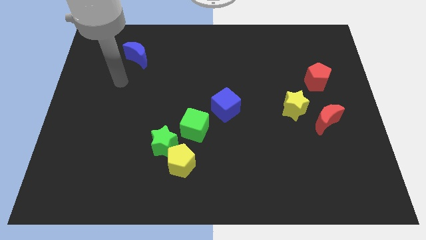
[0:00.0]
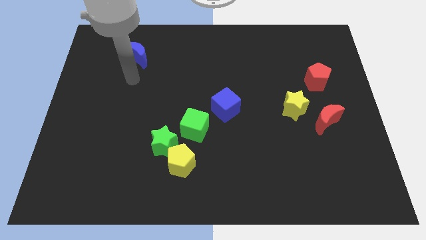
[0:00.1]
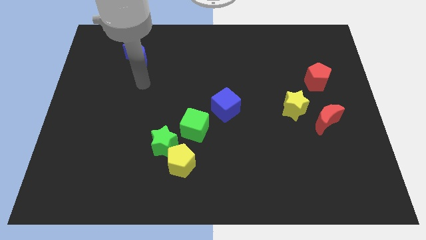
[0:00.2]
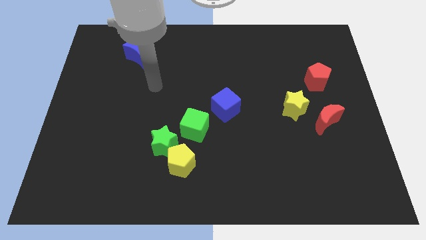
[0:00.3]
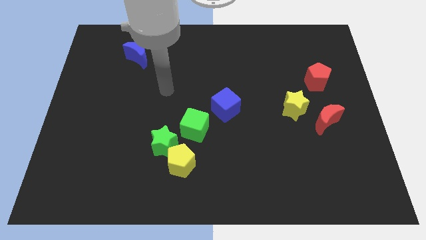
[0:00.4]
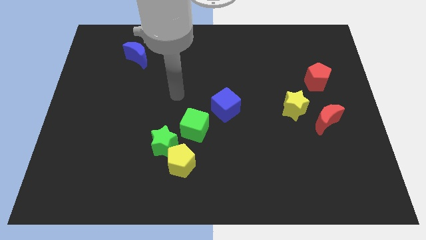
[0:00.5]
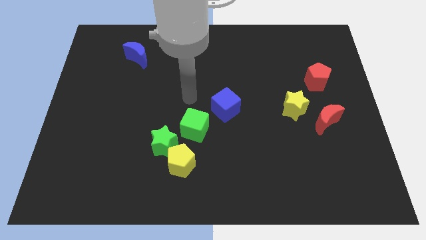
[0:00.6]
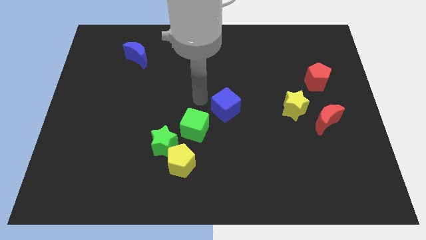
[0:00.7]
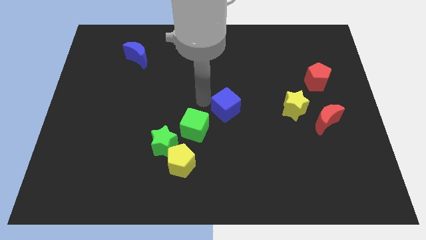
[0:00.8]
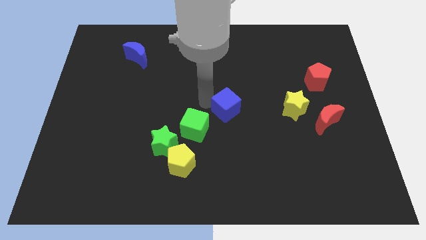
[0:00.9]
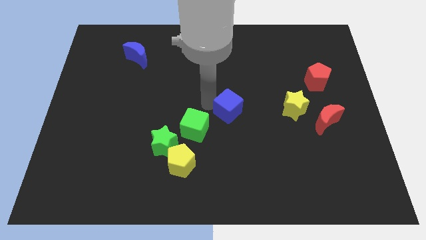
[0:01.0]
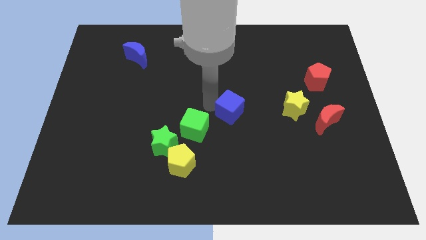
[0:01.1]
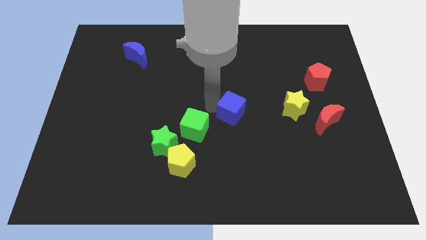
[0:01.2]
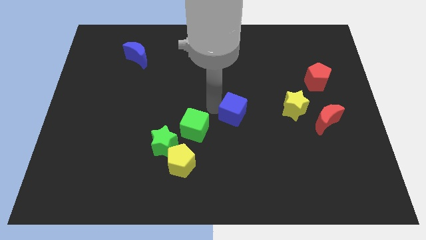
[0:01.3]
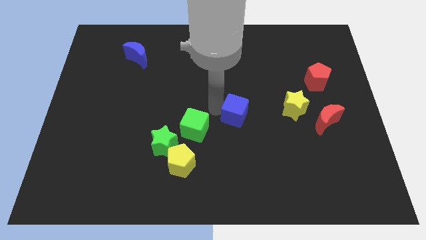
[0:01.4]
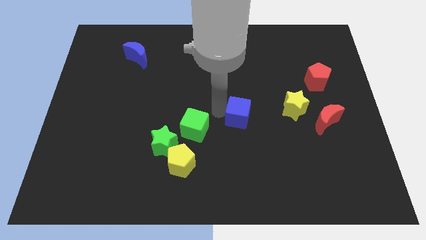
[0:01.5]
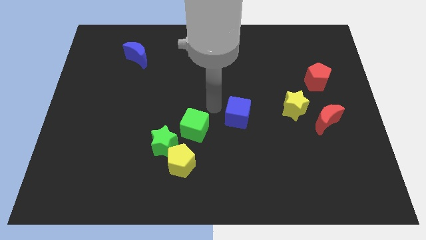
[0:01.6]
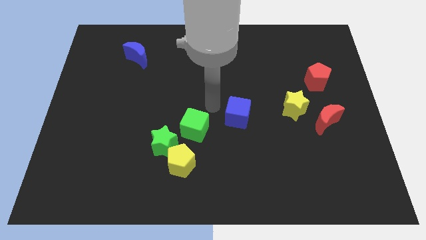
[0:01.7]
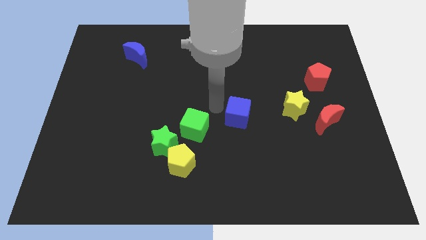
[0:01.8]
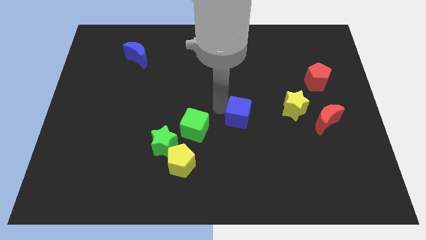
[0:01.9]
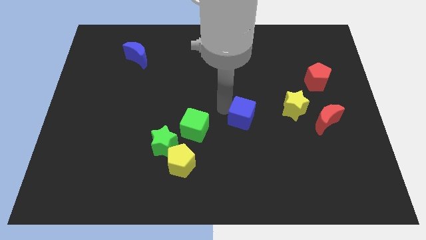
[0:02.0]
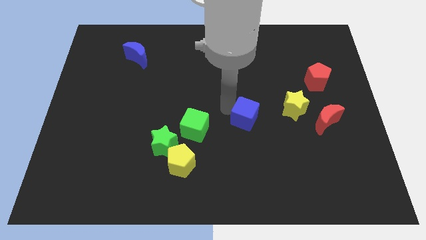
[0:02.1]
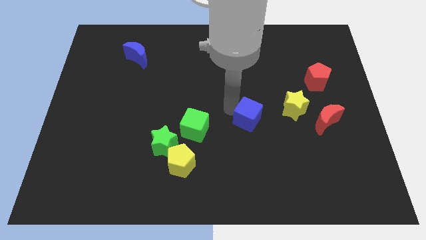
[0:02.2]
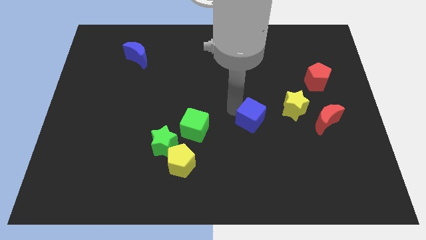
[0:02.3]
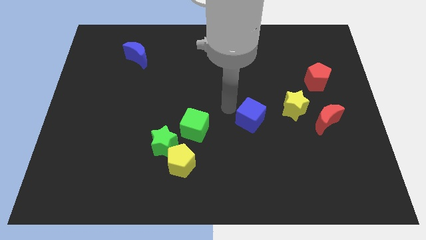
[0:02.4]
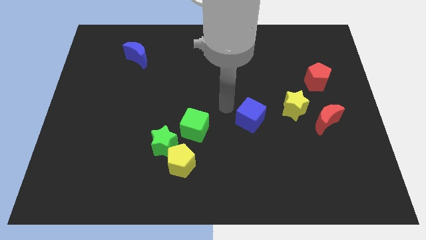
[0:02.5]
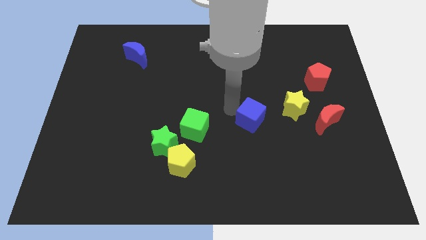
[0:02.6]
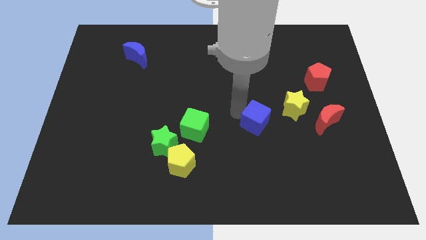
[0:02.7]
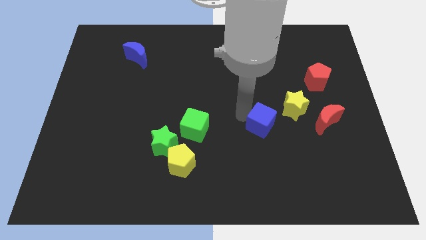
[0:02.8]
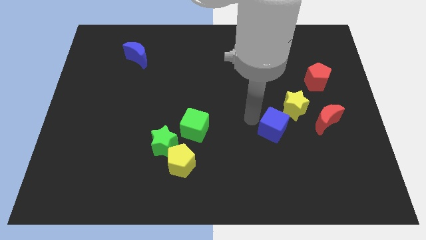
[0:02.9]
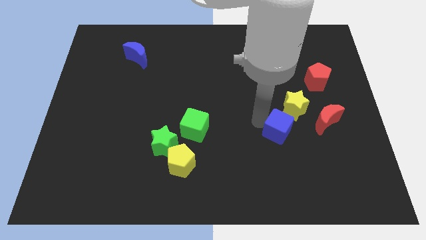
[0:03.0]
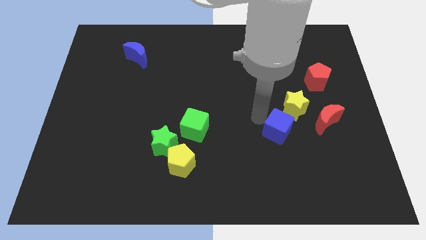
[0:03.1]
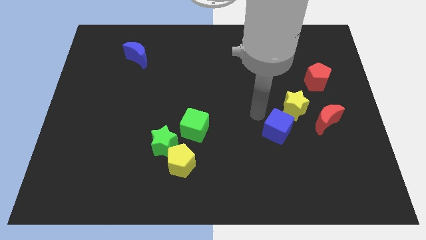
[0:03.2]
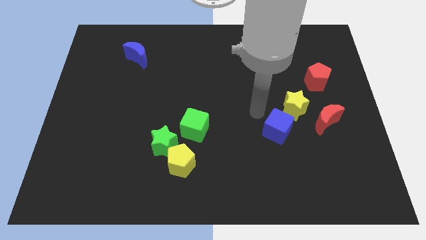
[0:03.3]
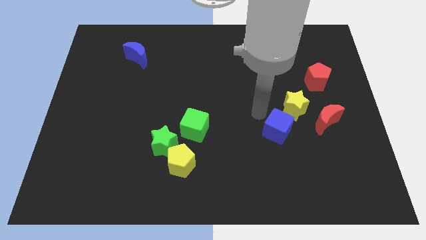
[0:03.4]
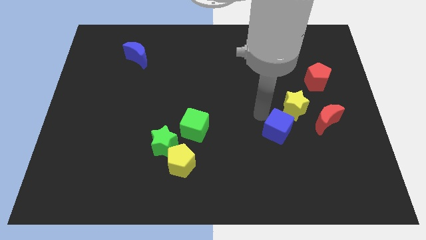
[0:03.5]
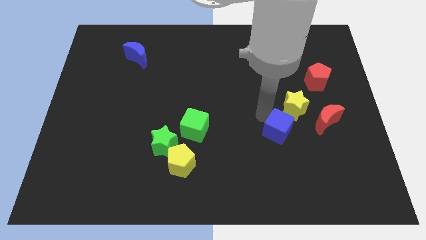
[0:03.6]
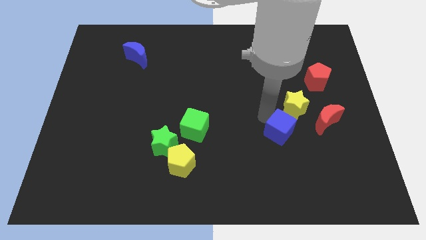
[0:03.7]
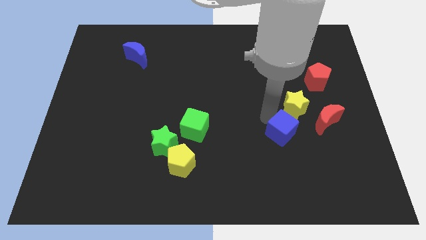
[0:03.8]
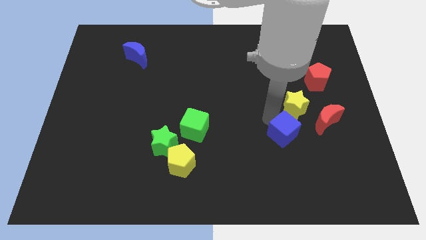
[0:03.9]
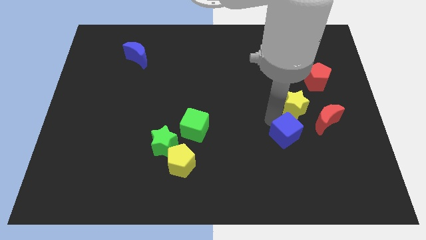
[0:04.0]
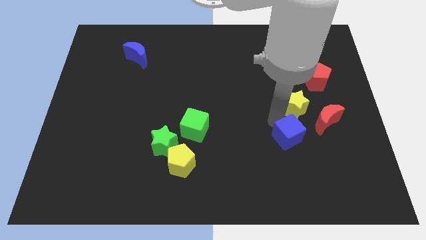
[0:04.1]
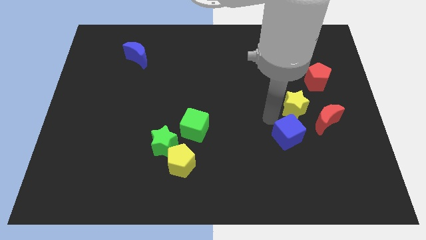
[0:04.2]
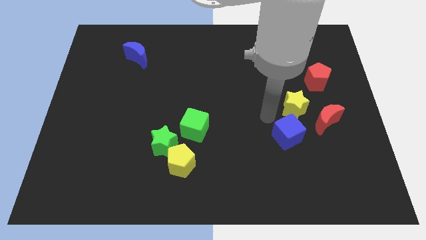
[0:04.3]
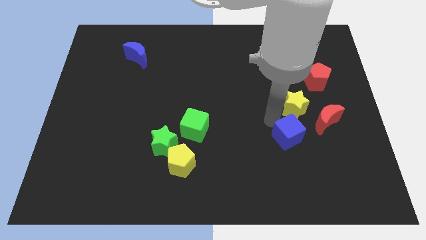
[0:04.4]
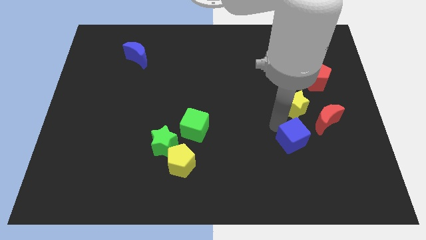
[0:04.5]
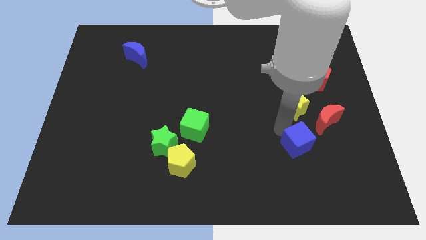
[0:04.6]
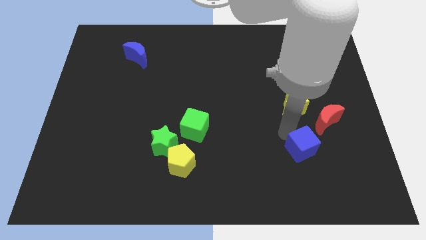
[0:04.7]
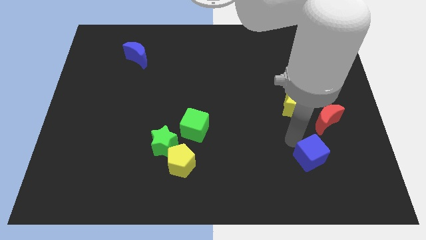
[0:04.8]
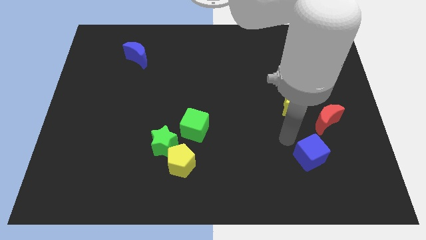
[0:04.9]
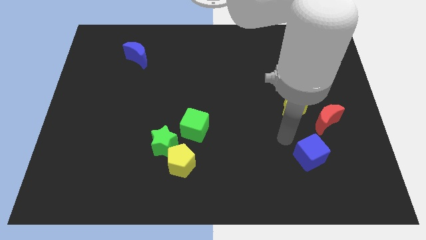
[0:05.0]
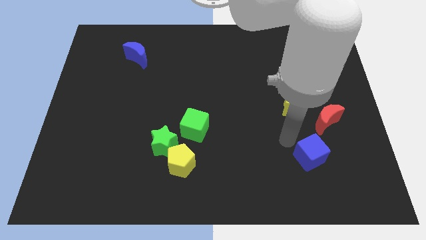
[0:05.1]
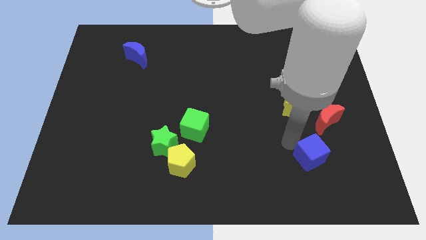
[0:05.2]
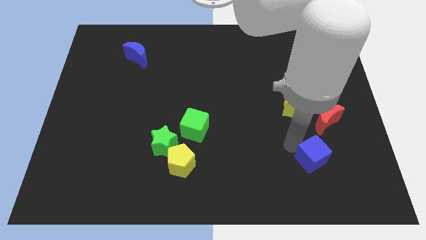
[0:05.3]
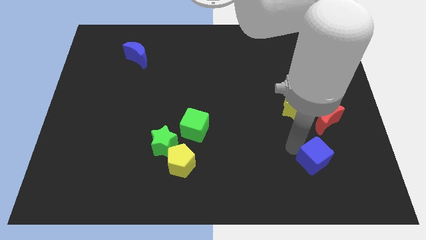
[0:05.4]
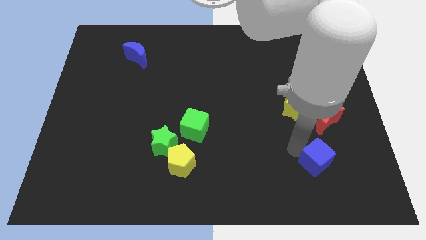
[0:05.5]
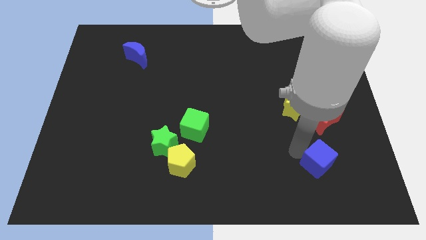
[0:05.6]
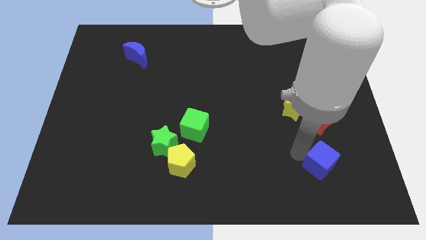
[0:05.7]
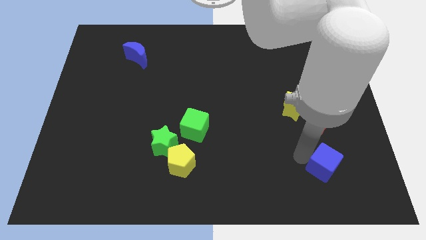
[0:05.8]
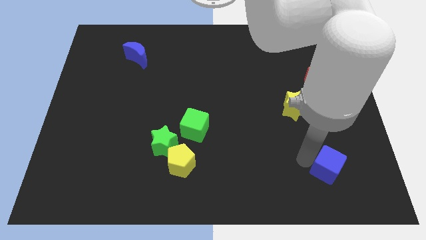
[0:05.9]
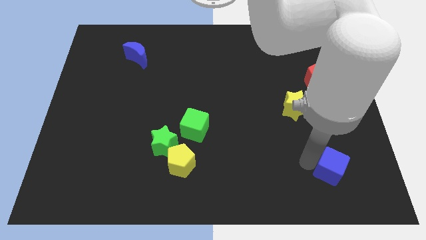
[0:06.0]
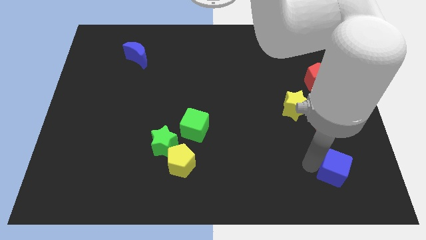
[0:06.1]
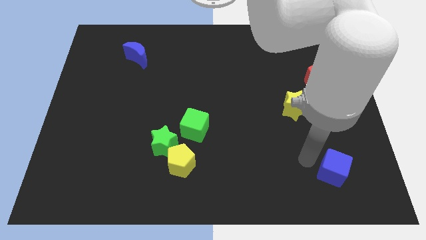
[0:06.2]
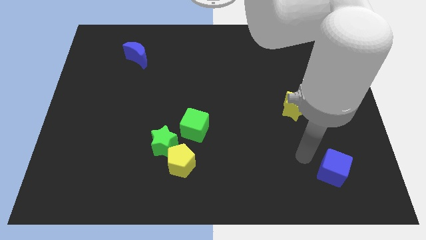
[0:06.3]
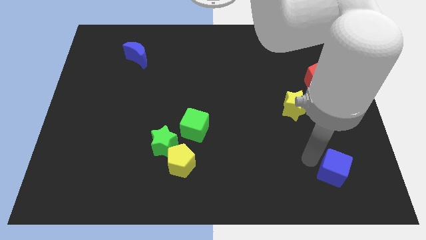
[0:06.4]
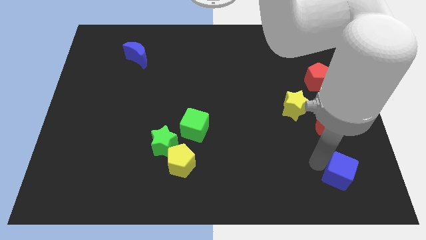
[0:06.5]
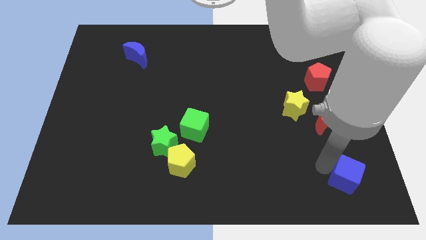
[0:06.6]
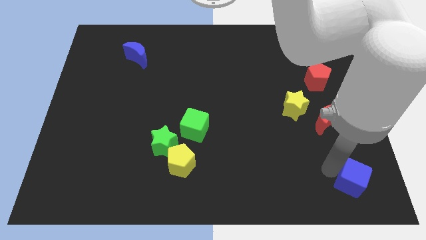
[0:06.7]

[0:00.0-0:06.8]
move the blue cube to the bottom right

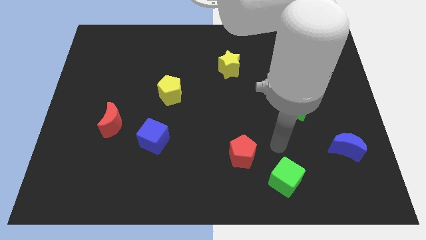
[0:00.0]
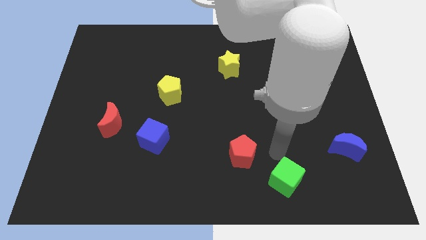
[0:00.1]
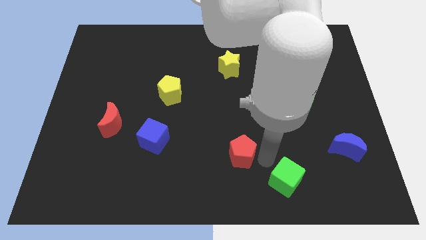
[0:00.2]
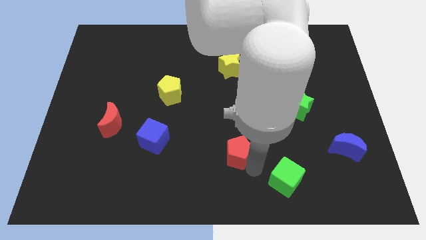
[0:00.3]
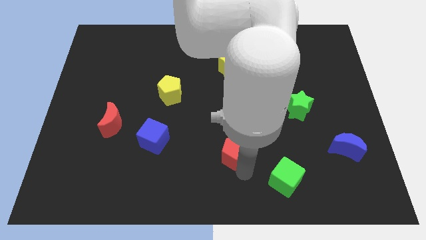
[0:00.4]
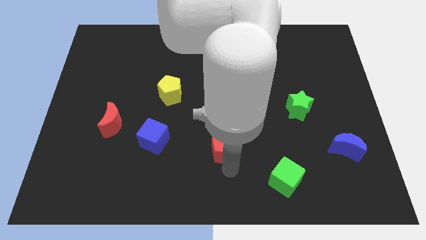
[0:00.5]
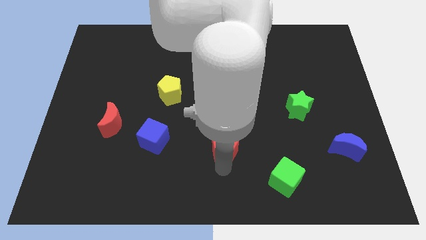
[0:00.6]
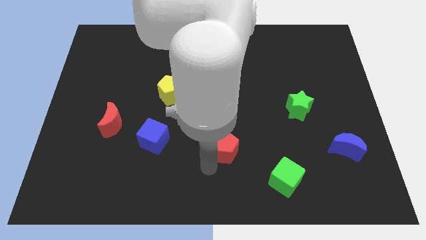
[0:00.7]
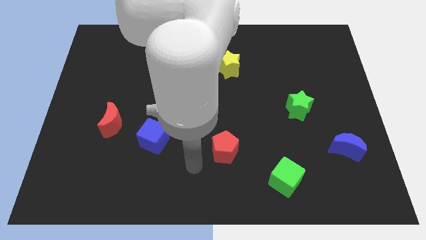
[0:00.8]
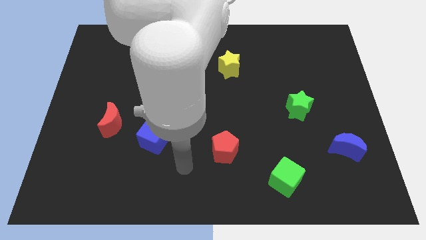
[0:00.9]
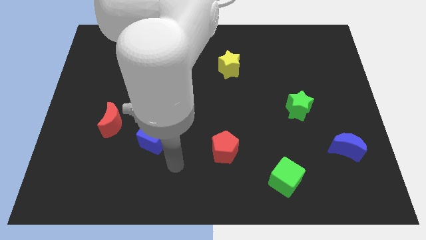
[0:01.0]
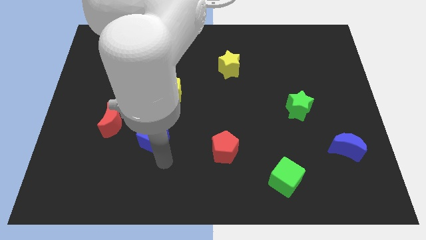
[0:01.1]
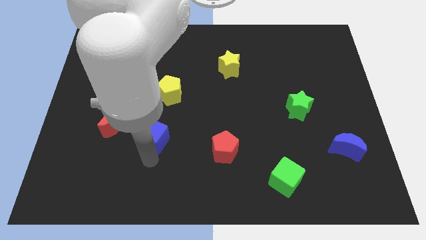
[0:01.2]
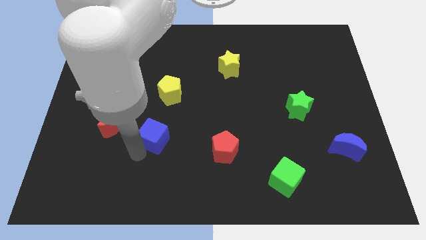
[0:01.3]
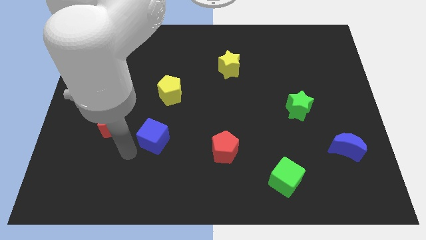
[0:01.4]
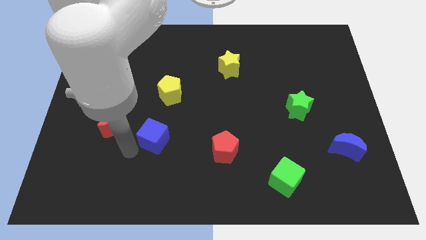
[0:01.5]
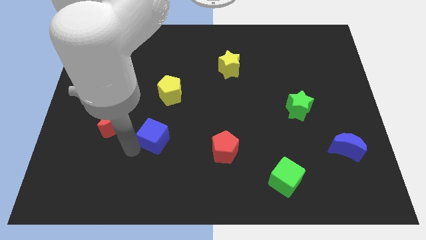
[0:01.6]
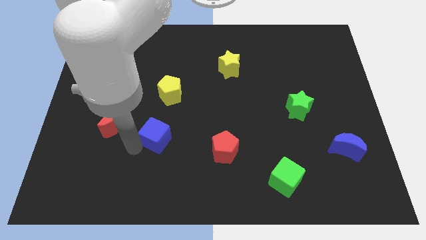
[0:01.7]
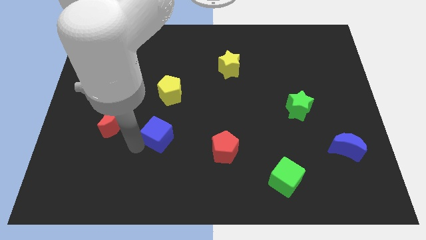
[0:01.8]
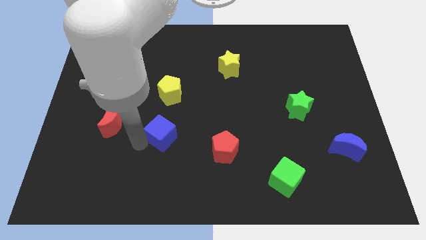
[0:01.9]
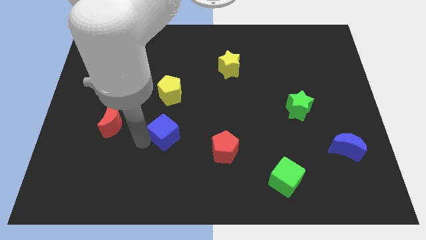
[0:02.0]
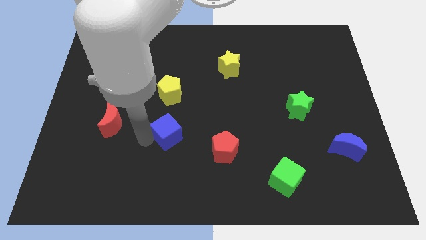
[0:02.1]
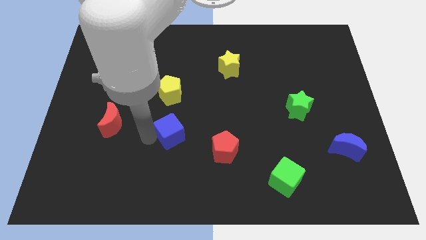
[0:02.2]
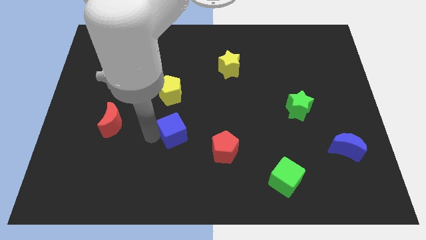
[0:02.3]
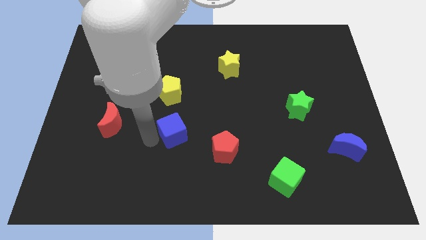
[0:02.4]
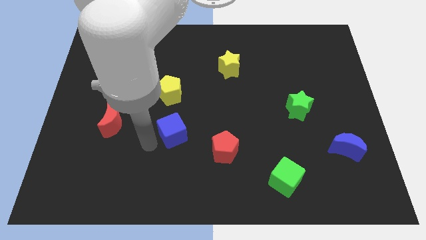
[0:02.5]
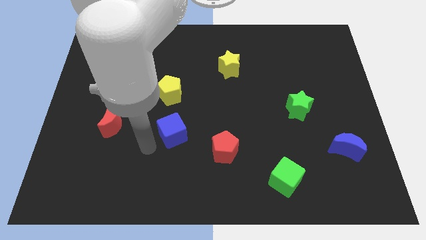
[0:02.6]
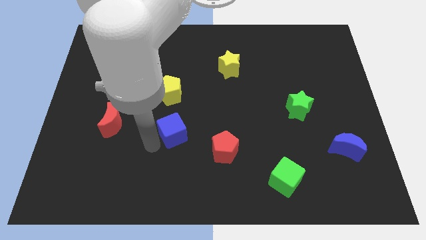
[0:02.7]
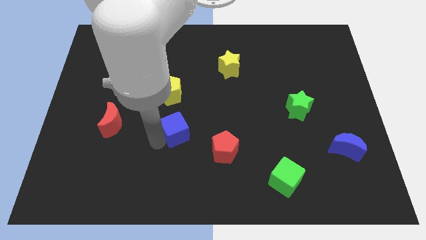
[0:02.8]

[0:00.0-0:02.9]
push the blue cube to the center of the board
